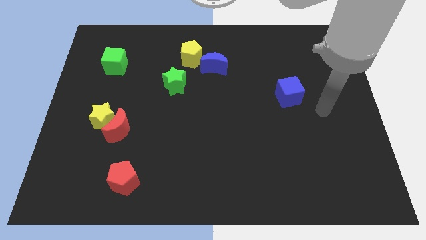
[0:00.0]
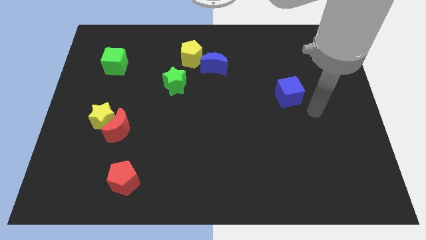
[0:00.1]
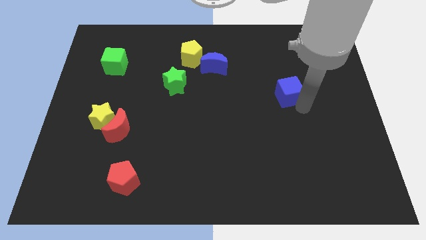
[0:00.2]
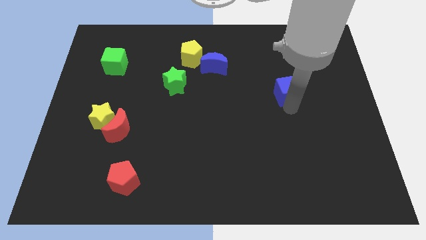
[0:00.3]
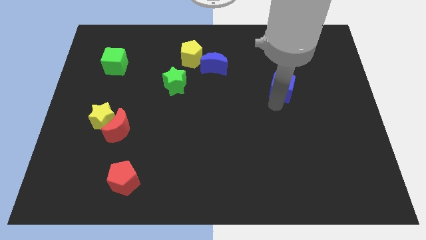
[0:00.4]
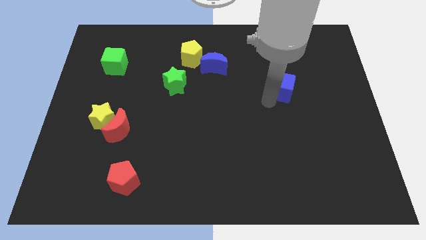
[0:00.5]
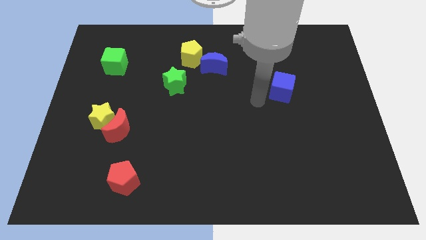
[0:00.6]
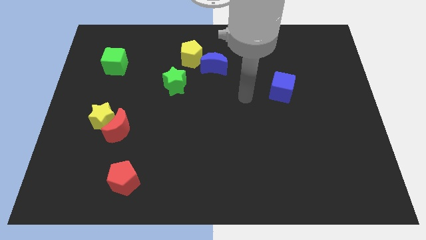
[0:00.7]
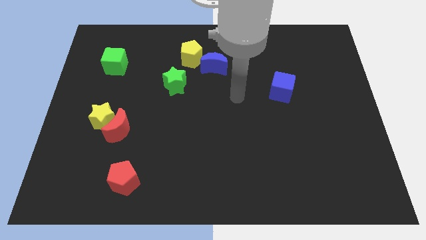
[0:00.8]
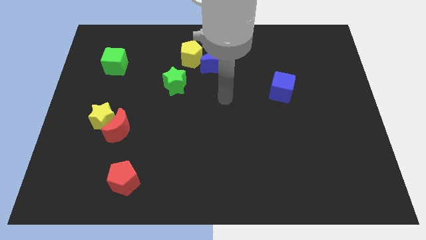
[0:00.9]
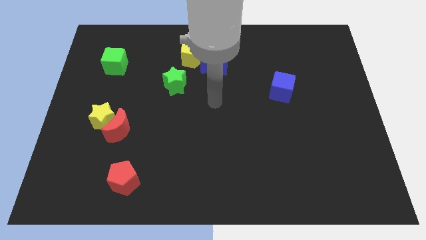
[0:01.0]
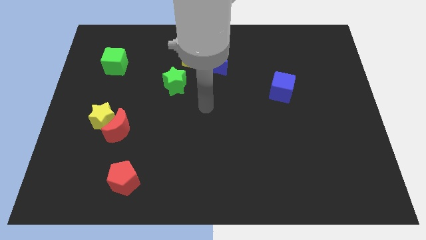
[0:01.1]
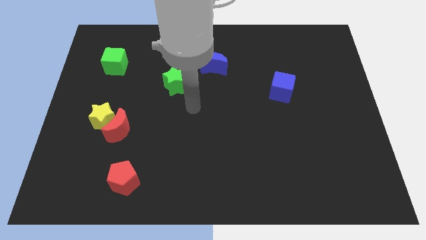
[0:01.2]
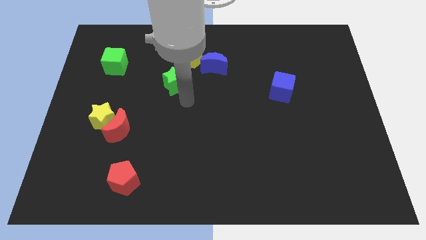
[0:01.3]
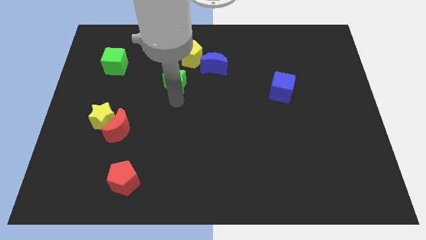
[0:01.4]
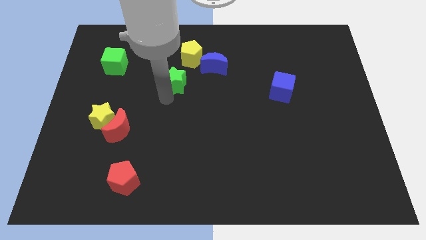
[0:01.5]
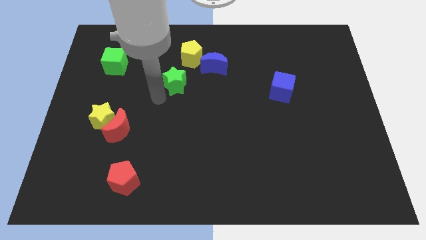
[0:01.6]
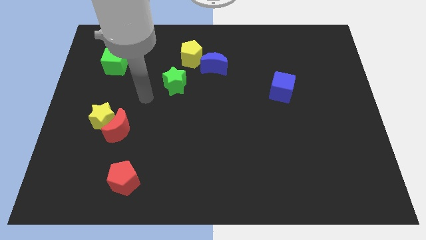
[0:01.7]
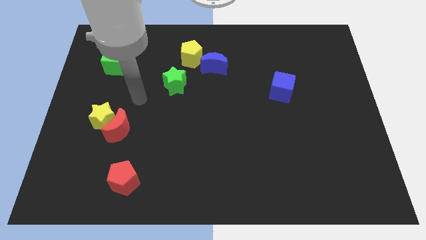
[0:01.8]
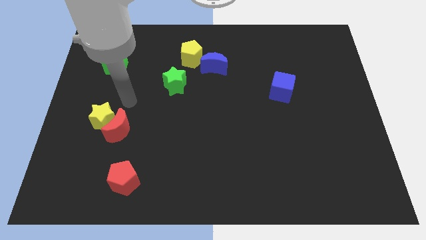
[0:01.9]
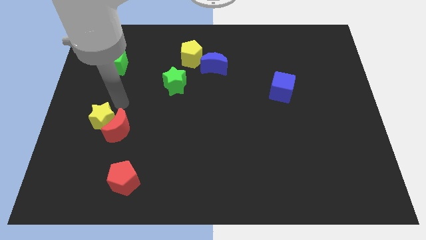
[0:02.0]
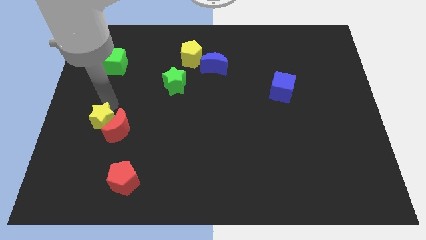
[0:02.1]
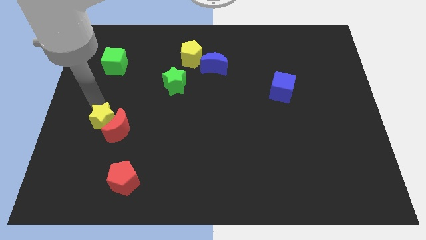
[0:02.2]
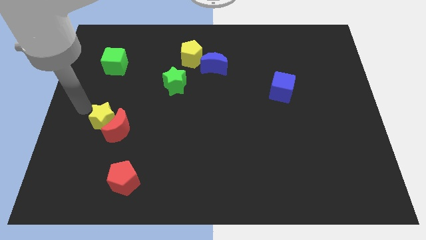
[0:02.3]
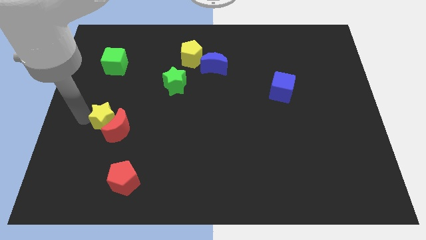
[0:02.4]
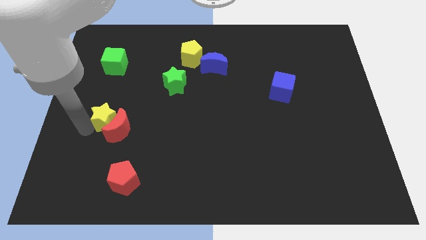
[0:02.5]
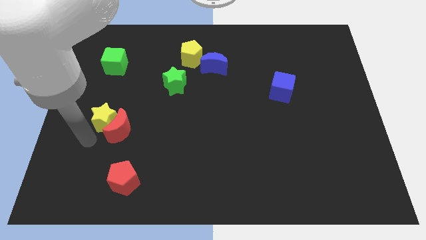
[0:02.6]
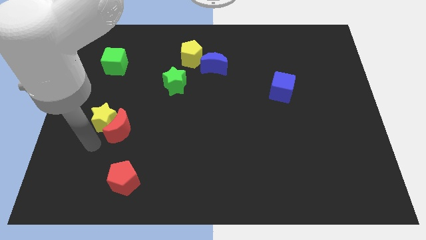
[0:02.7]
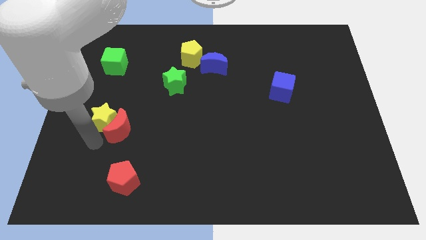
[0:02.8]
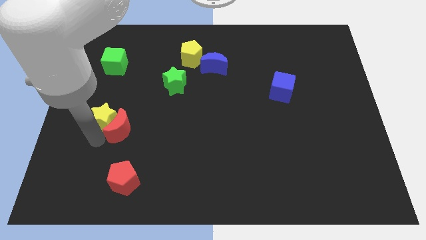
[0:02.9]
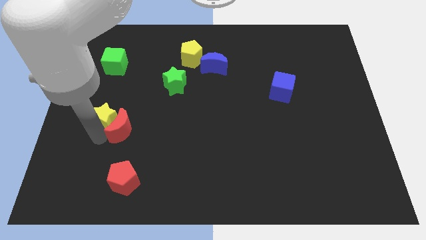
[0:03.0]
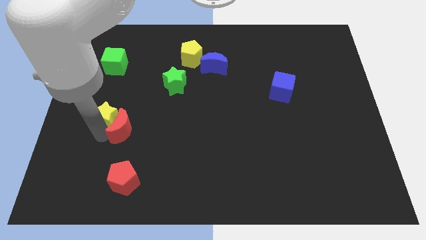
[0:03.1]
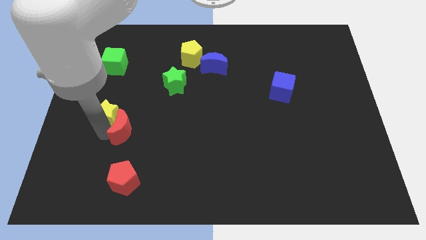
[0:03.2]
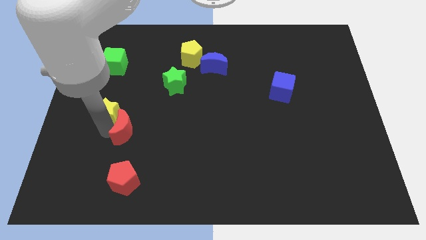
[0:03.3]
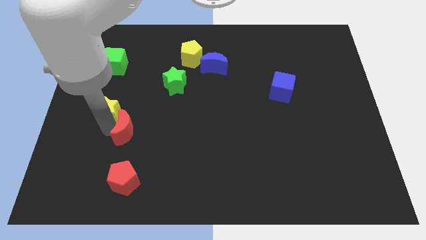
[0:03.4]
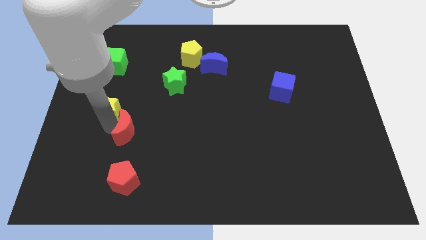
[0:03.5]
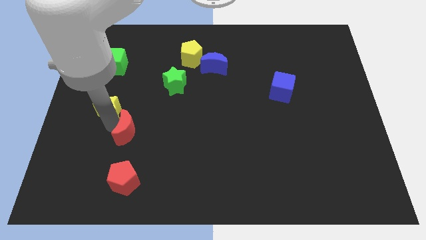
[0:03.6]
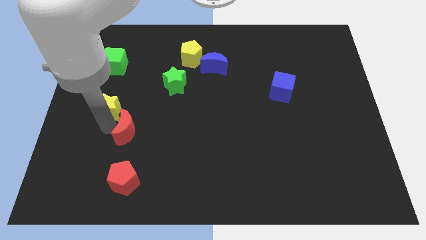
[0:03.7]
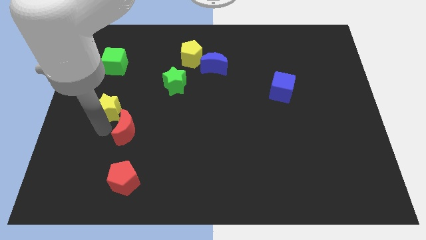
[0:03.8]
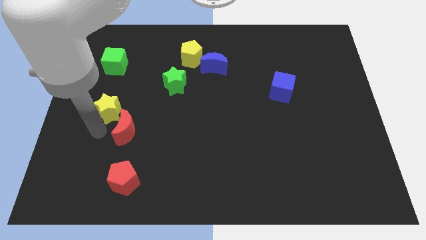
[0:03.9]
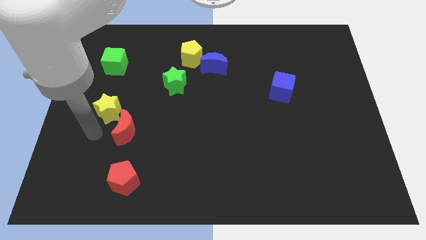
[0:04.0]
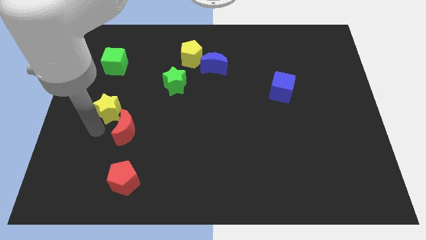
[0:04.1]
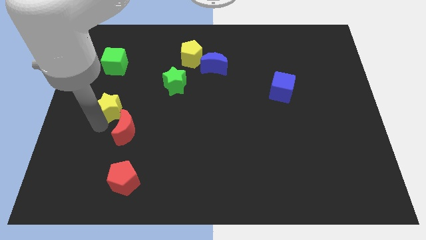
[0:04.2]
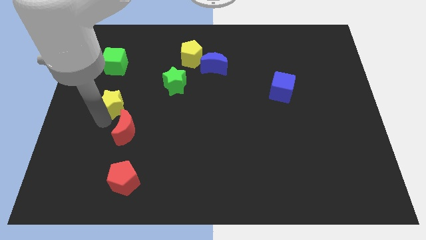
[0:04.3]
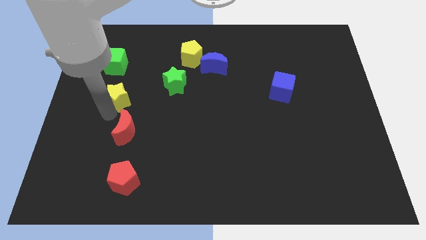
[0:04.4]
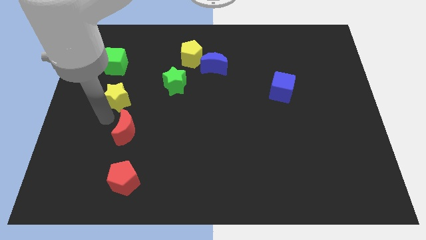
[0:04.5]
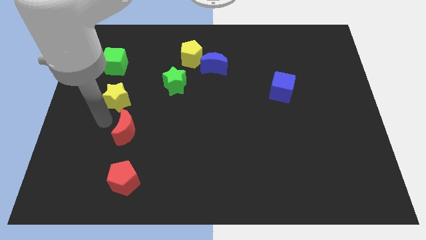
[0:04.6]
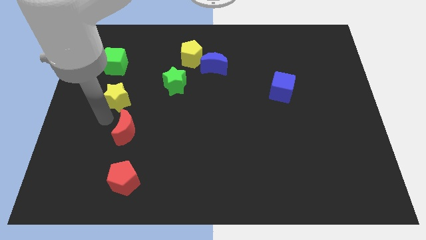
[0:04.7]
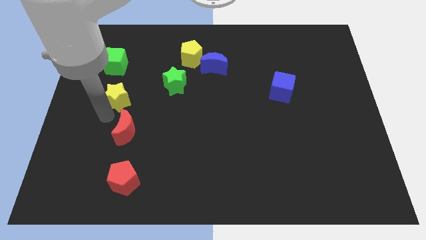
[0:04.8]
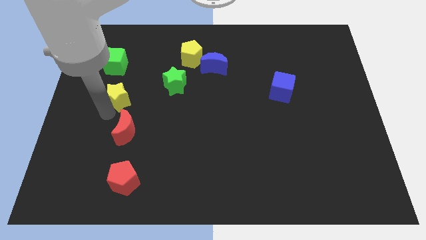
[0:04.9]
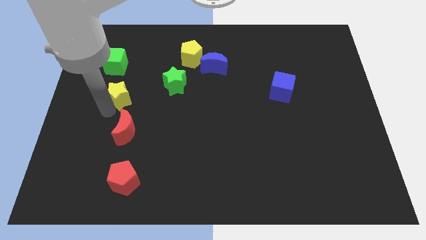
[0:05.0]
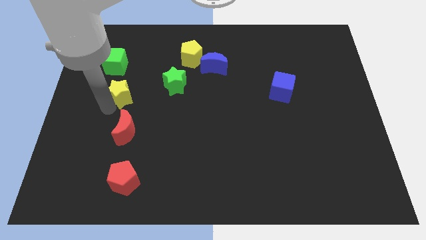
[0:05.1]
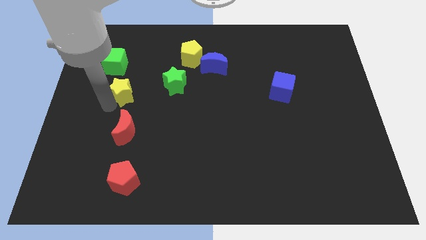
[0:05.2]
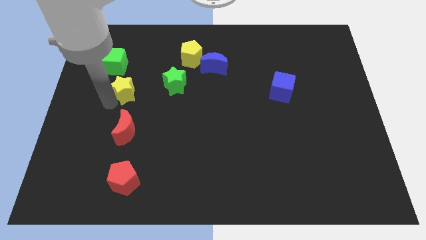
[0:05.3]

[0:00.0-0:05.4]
put the yellow star to the bottom right side of the green cube

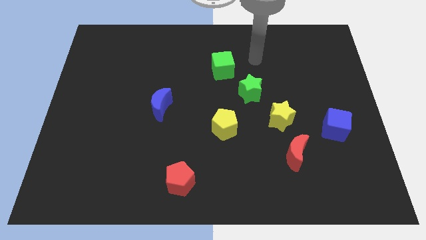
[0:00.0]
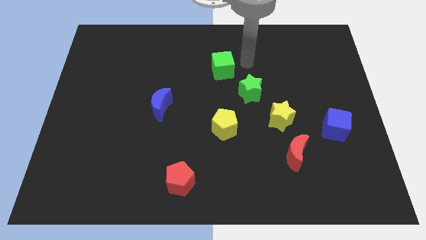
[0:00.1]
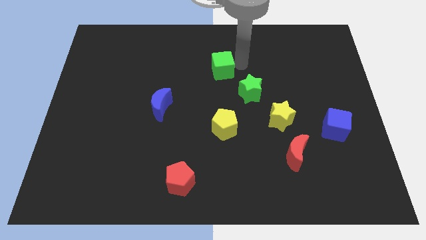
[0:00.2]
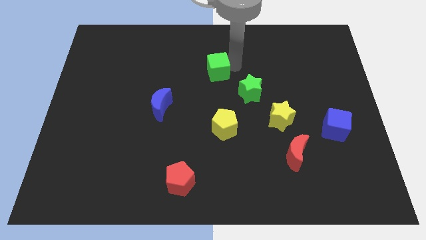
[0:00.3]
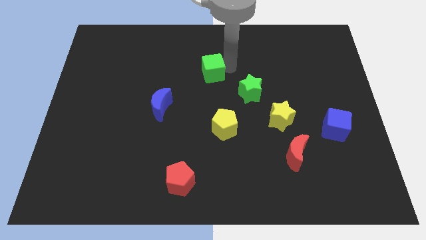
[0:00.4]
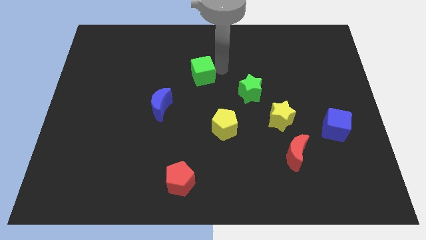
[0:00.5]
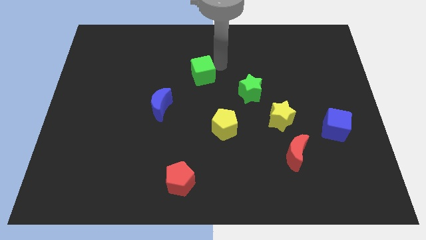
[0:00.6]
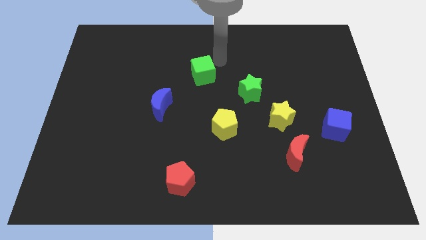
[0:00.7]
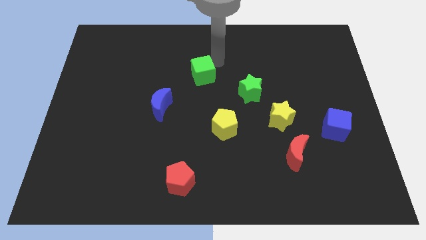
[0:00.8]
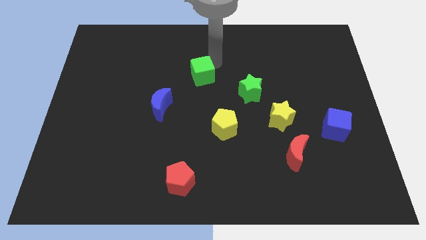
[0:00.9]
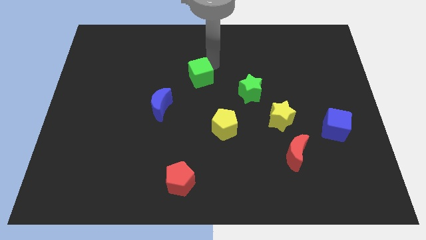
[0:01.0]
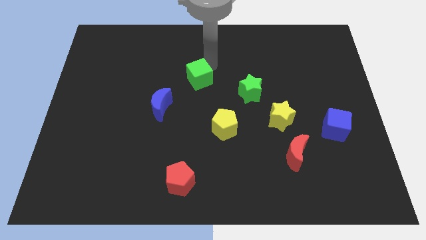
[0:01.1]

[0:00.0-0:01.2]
move the green cube to the top right side of the blue moon

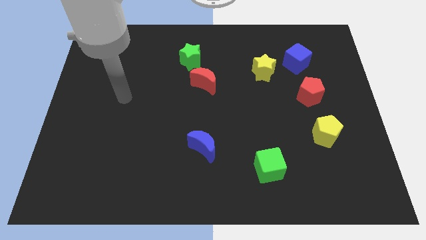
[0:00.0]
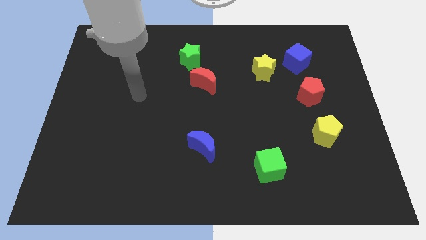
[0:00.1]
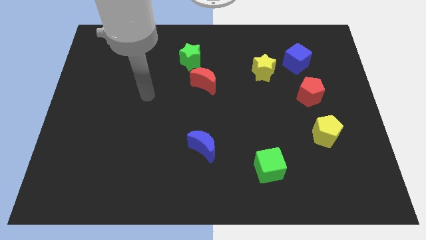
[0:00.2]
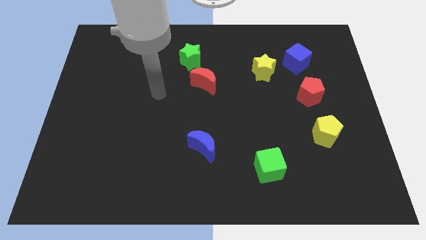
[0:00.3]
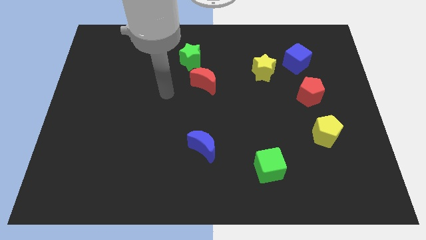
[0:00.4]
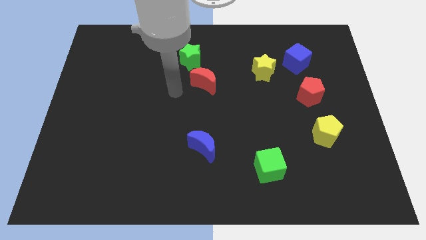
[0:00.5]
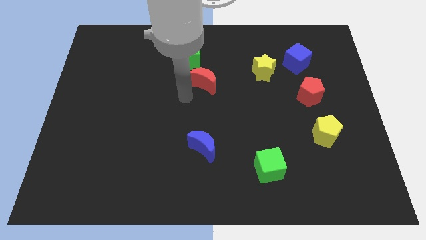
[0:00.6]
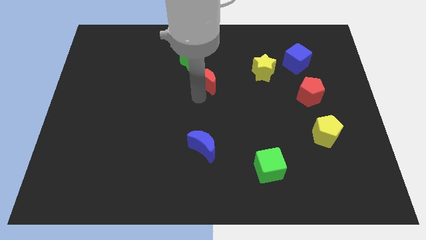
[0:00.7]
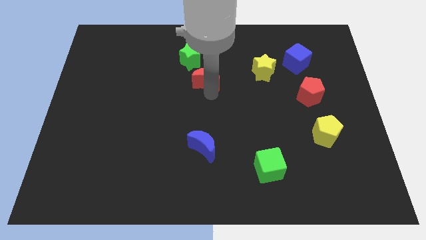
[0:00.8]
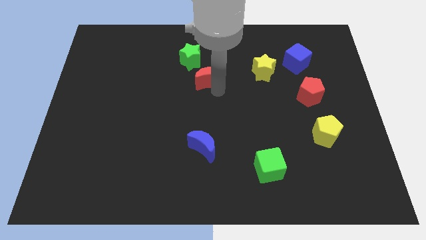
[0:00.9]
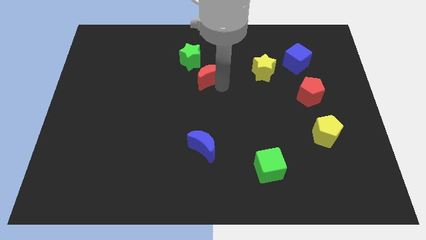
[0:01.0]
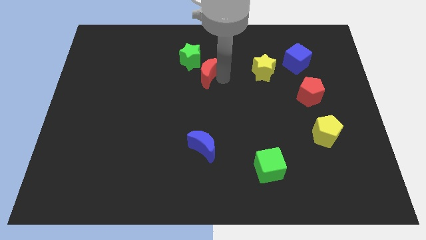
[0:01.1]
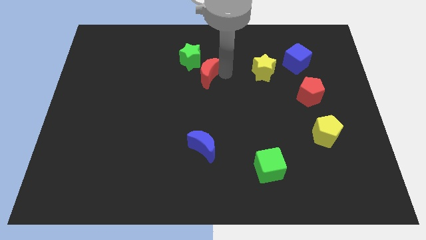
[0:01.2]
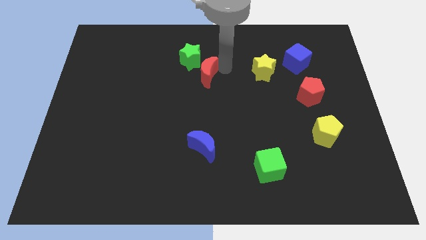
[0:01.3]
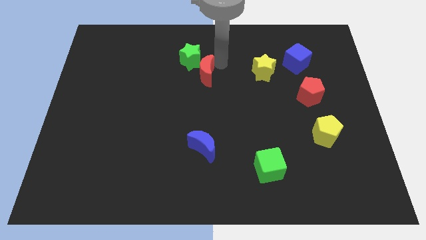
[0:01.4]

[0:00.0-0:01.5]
slide the green star to the left side of the red moon
